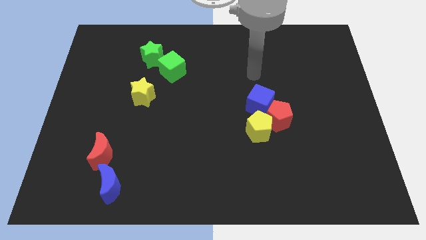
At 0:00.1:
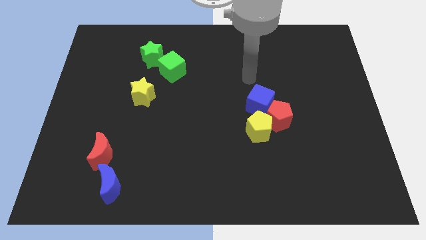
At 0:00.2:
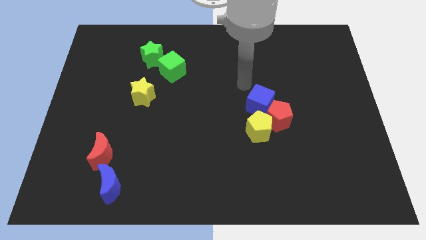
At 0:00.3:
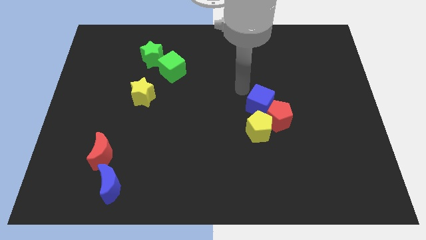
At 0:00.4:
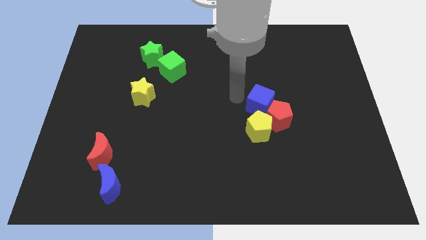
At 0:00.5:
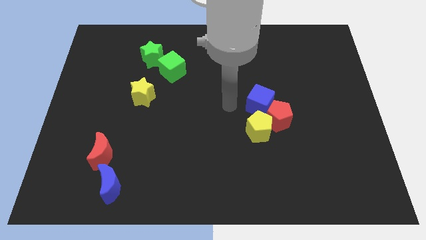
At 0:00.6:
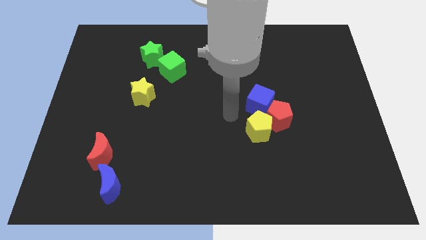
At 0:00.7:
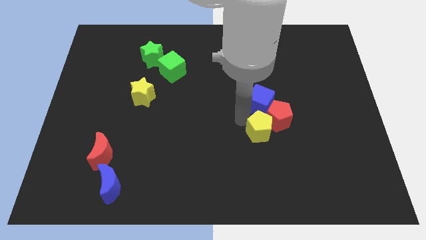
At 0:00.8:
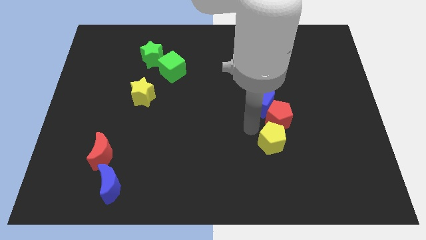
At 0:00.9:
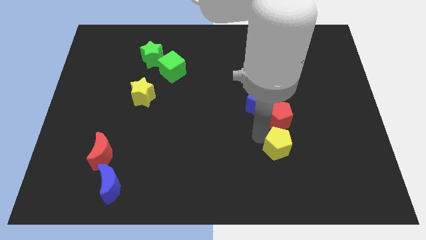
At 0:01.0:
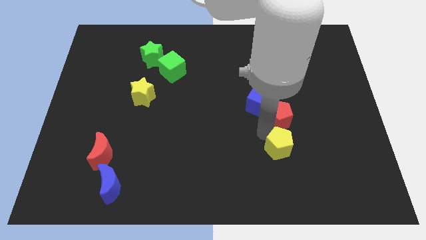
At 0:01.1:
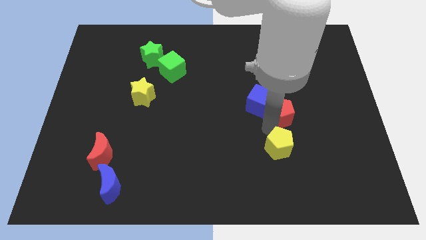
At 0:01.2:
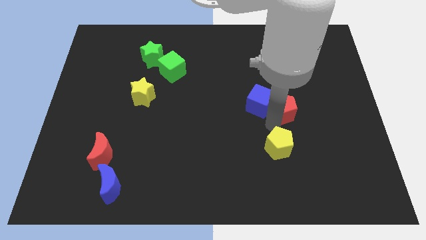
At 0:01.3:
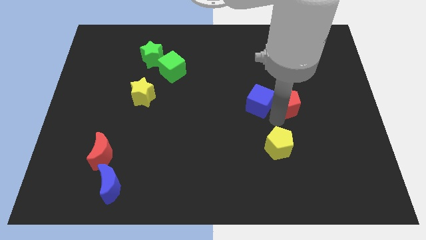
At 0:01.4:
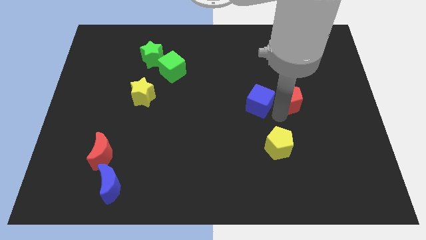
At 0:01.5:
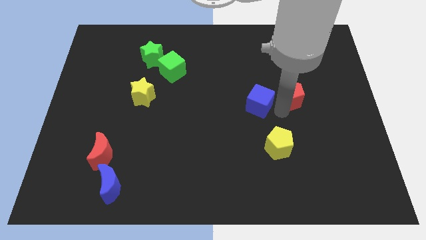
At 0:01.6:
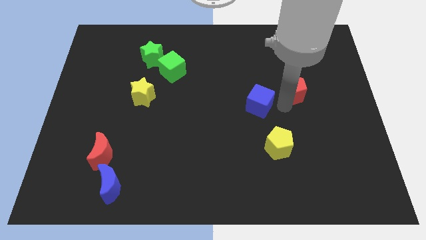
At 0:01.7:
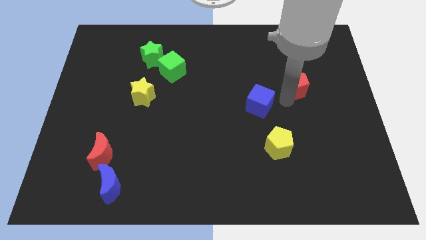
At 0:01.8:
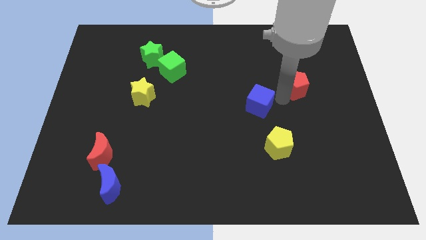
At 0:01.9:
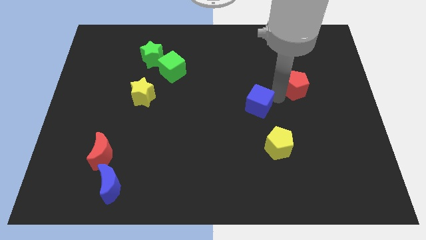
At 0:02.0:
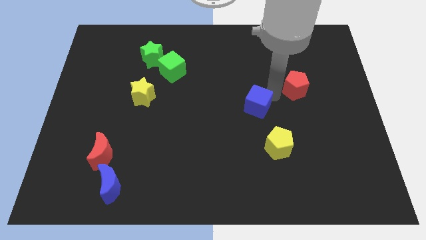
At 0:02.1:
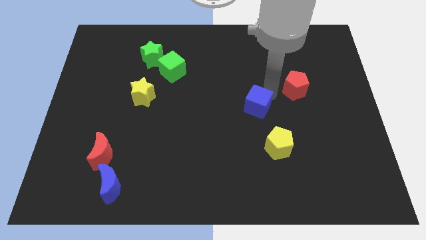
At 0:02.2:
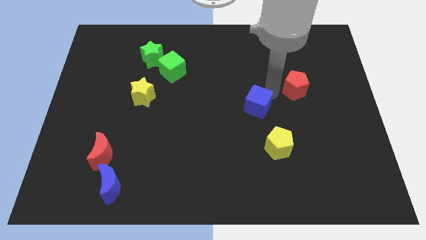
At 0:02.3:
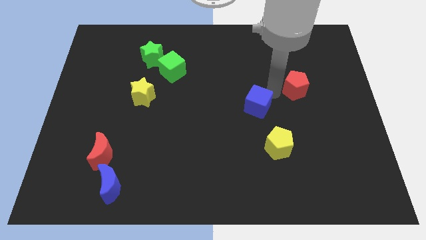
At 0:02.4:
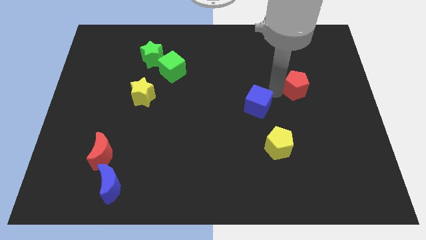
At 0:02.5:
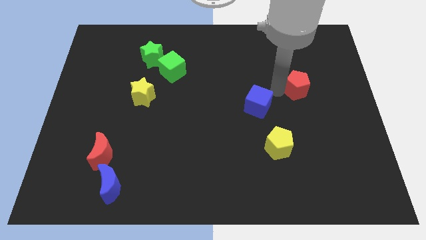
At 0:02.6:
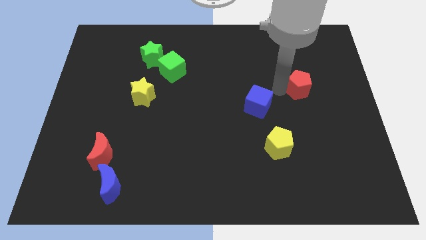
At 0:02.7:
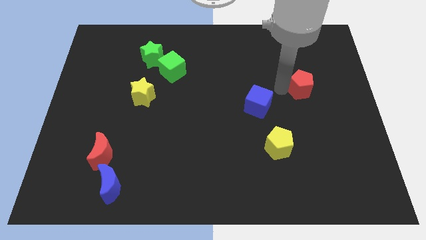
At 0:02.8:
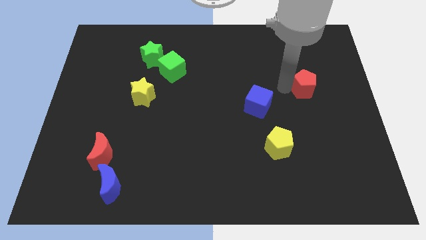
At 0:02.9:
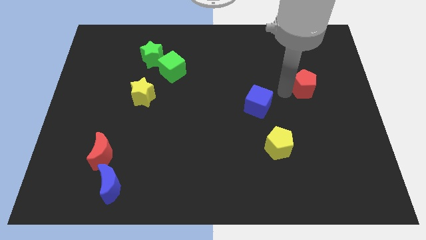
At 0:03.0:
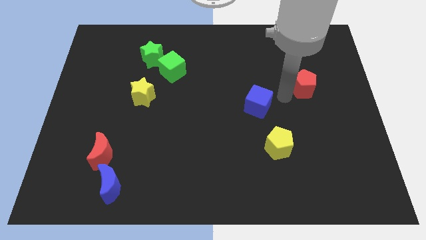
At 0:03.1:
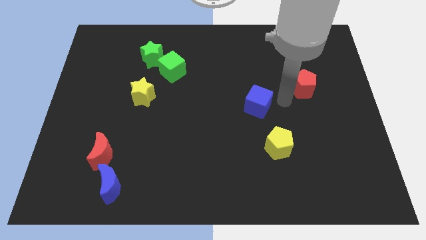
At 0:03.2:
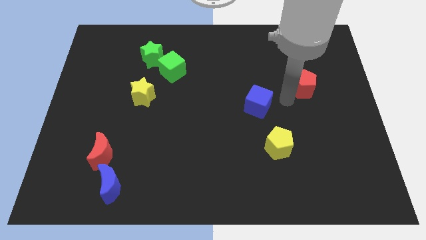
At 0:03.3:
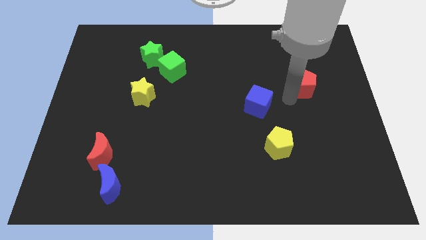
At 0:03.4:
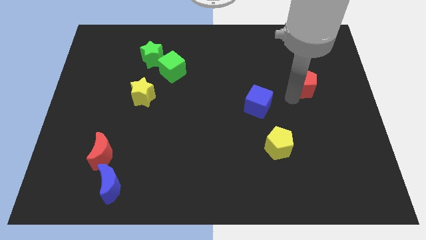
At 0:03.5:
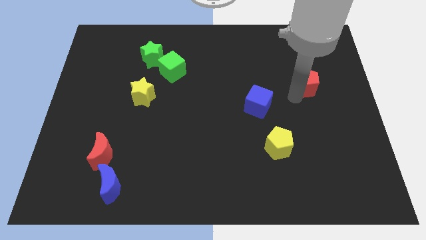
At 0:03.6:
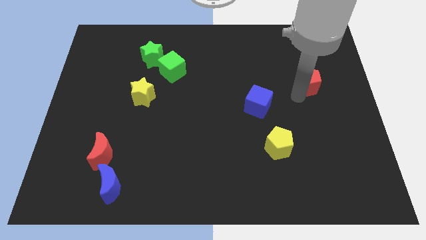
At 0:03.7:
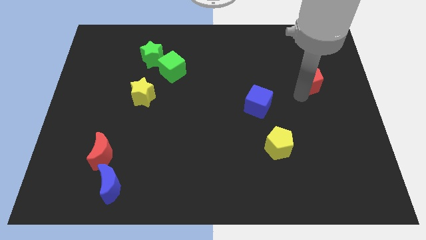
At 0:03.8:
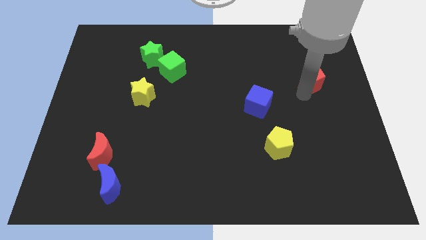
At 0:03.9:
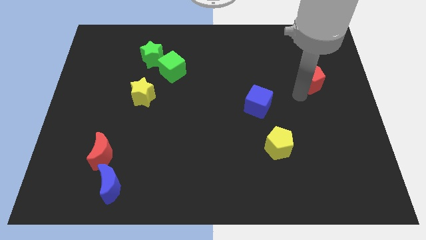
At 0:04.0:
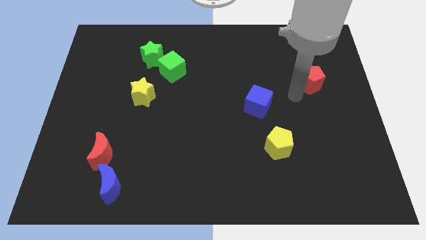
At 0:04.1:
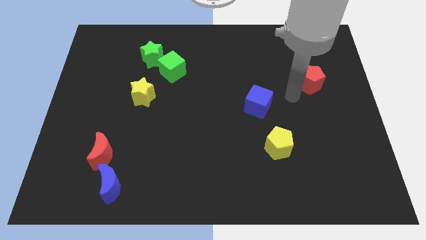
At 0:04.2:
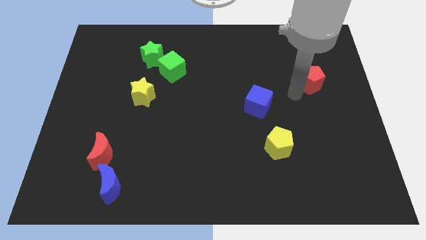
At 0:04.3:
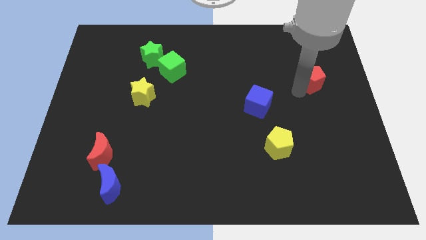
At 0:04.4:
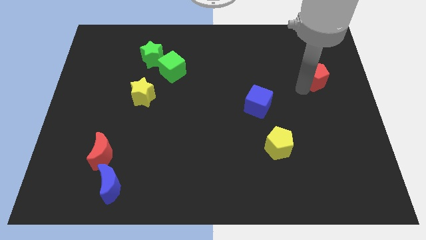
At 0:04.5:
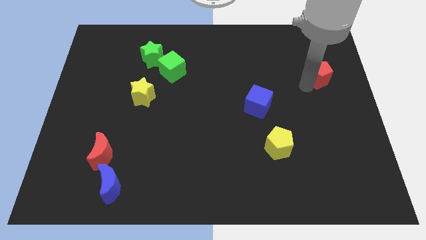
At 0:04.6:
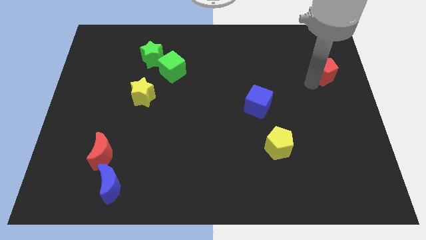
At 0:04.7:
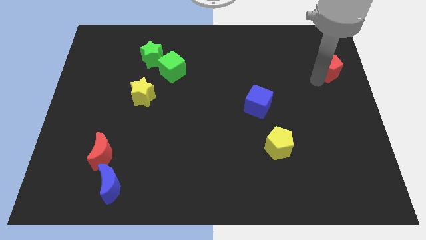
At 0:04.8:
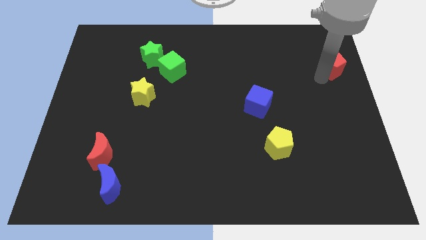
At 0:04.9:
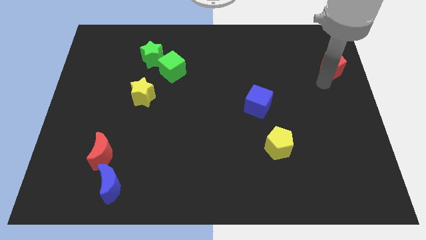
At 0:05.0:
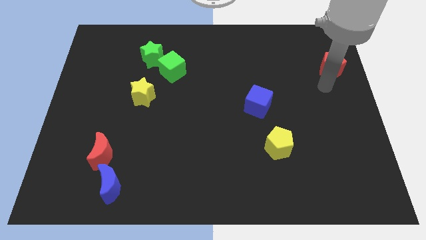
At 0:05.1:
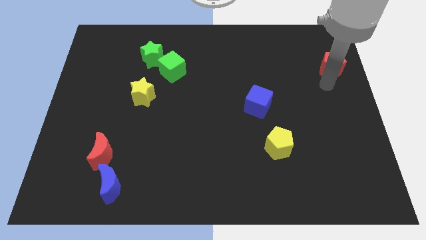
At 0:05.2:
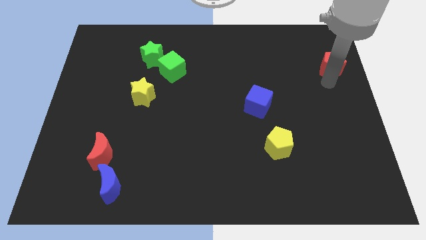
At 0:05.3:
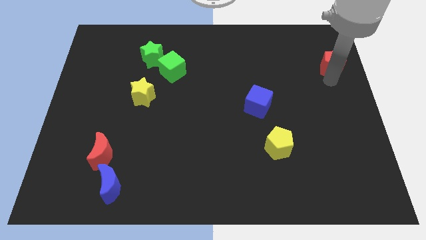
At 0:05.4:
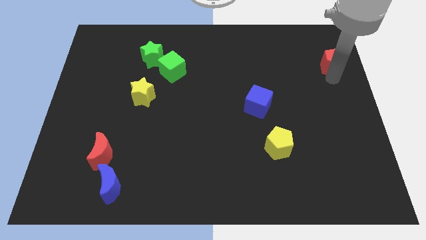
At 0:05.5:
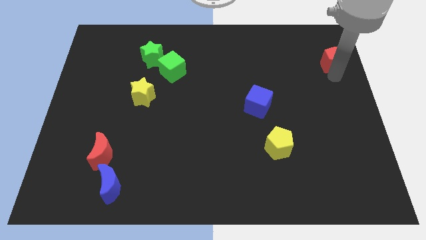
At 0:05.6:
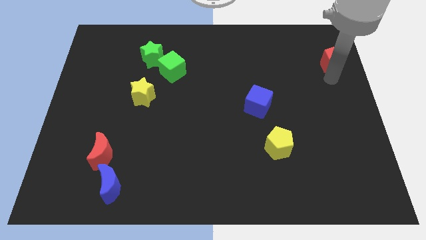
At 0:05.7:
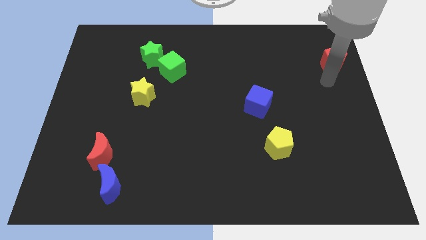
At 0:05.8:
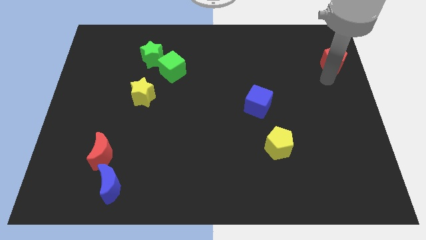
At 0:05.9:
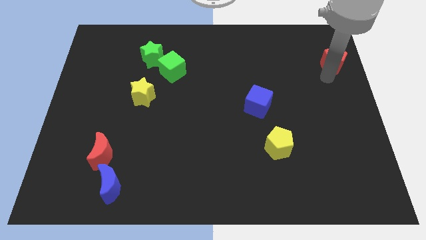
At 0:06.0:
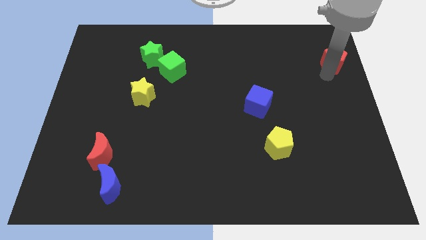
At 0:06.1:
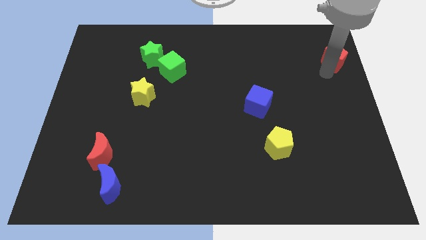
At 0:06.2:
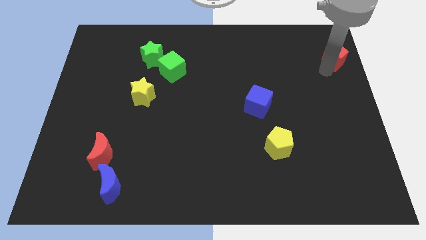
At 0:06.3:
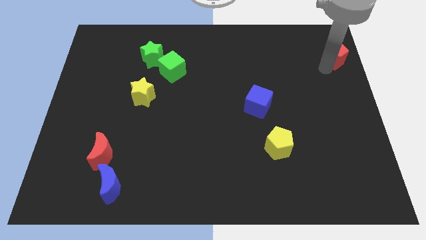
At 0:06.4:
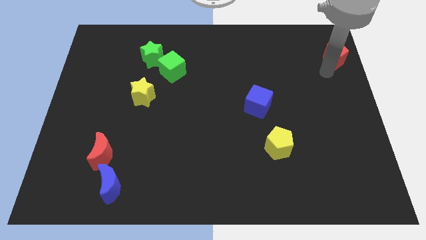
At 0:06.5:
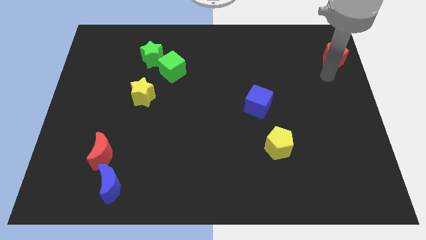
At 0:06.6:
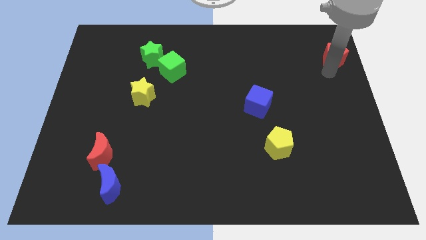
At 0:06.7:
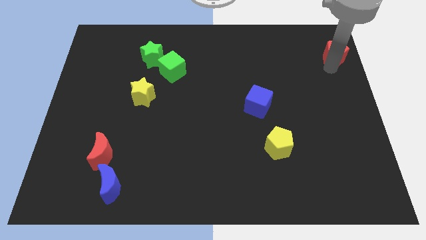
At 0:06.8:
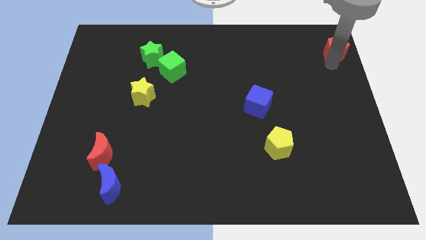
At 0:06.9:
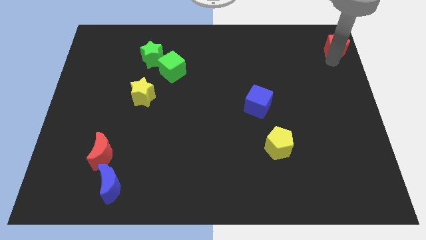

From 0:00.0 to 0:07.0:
slide the red pentagon to the top right

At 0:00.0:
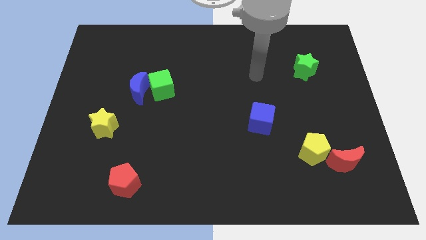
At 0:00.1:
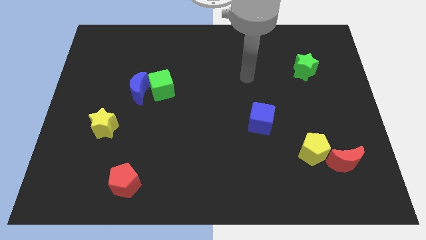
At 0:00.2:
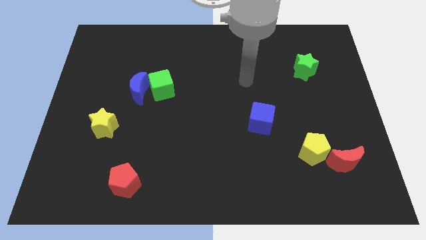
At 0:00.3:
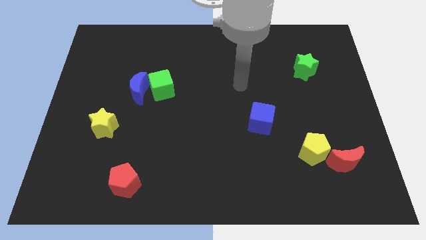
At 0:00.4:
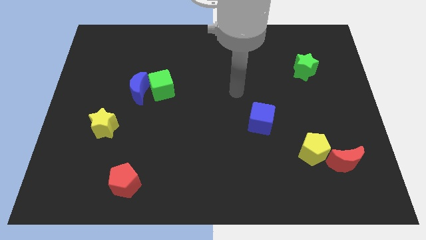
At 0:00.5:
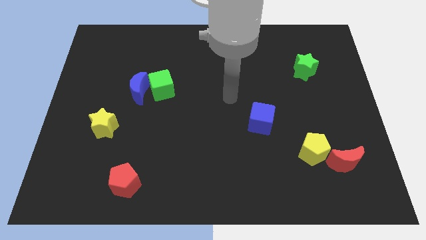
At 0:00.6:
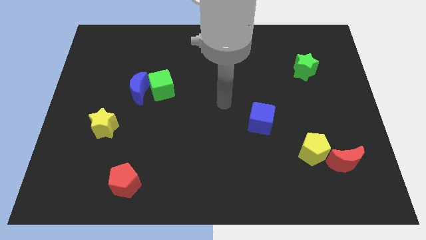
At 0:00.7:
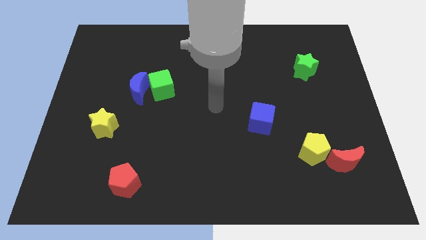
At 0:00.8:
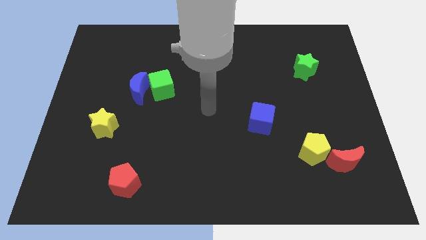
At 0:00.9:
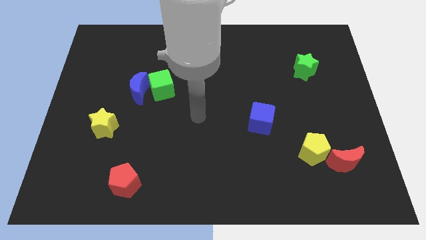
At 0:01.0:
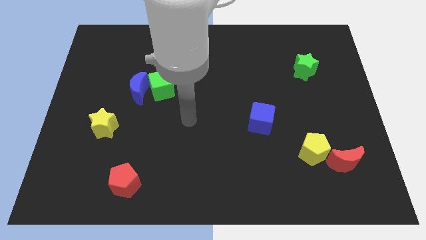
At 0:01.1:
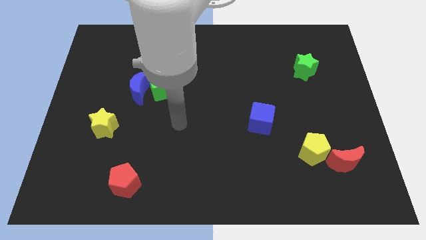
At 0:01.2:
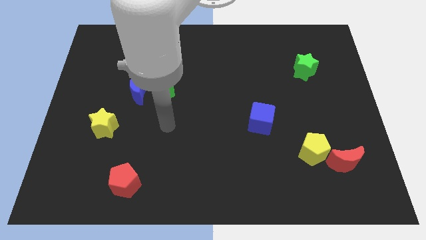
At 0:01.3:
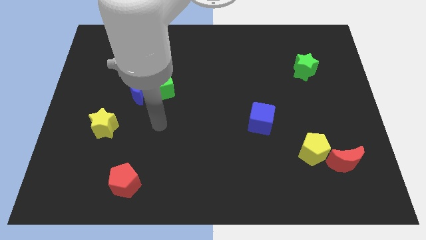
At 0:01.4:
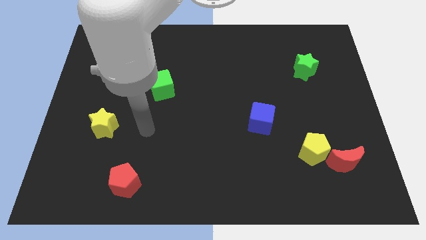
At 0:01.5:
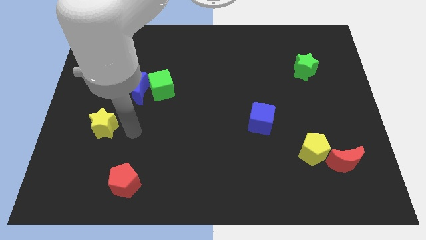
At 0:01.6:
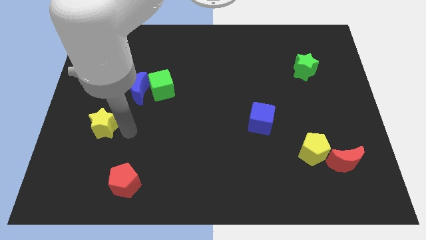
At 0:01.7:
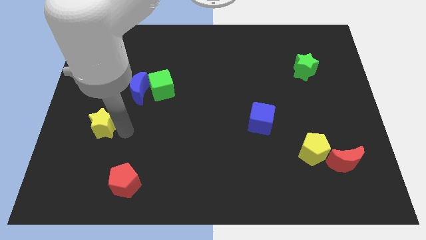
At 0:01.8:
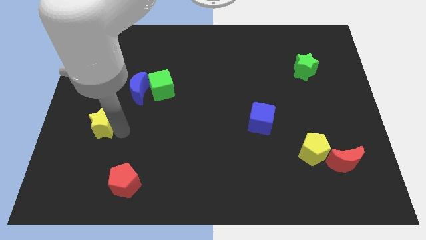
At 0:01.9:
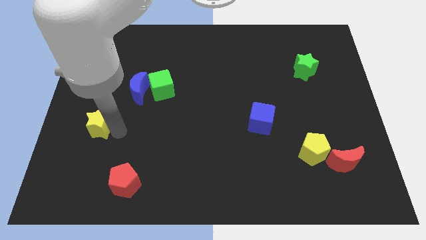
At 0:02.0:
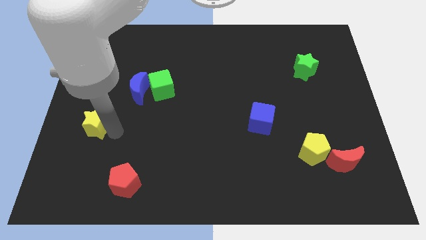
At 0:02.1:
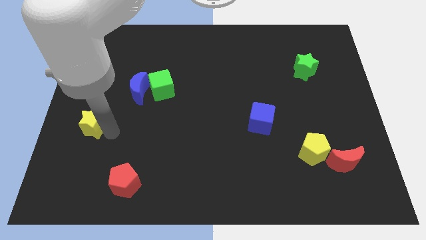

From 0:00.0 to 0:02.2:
move the yellow star to the center left
